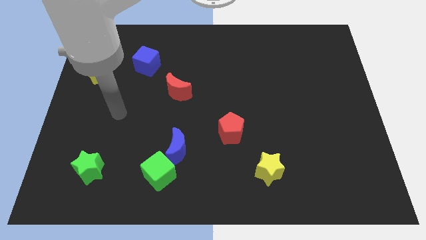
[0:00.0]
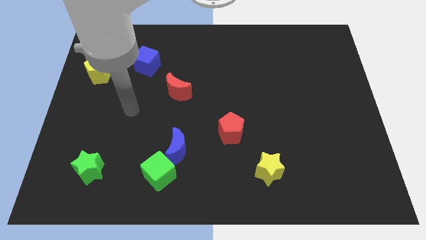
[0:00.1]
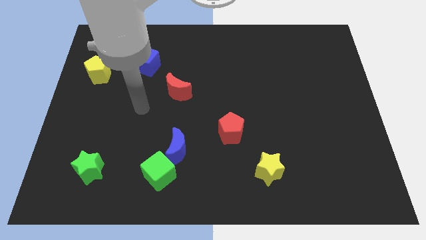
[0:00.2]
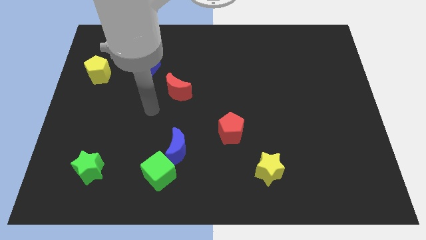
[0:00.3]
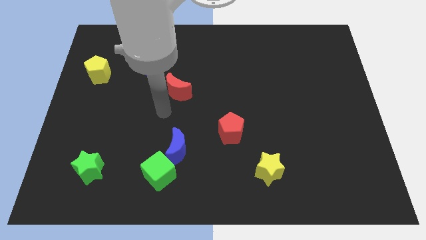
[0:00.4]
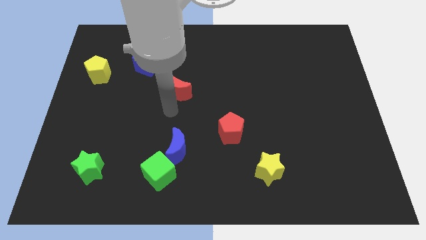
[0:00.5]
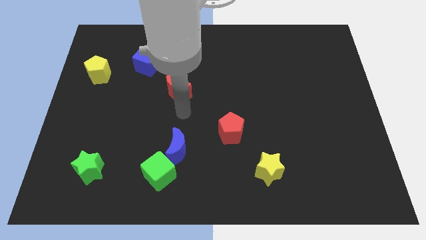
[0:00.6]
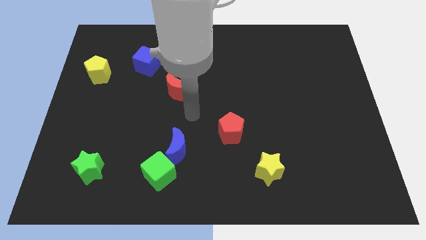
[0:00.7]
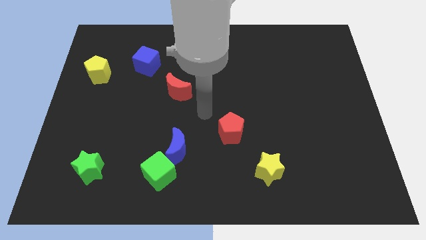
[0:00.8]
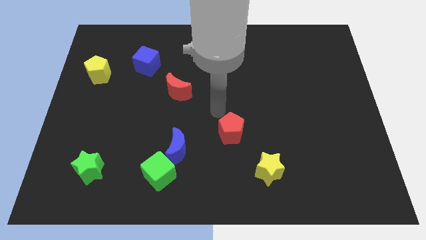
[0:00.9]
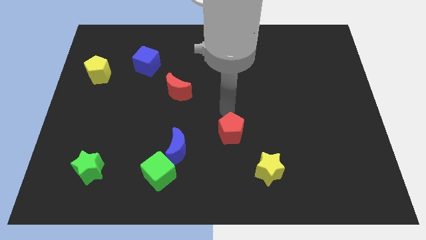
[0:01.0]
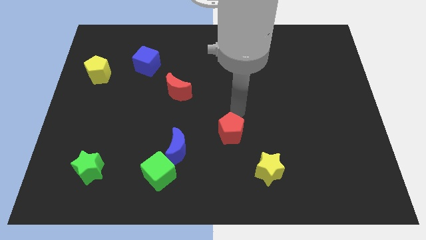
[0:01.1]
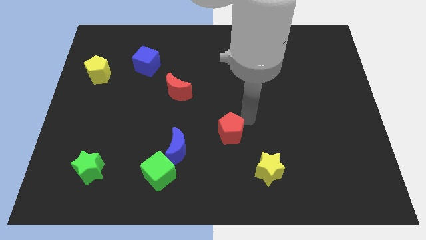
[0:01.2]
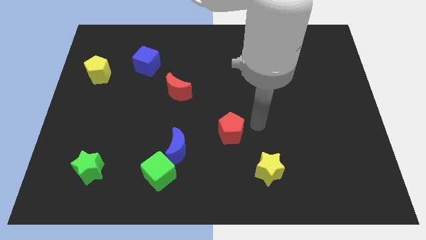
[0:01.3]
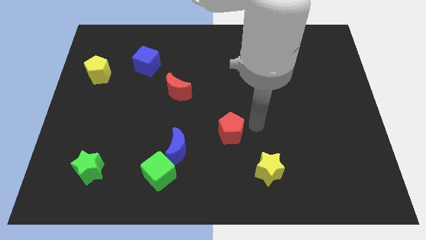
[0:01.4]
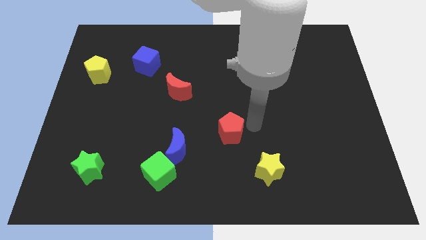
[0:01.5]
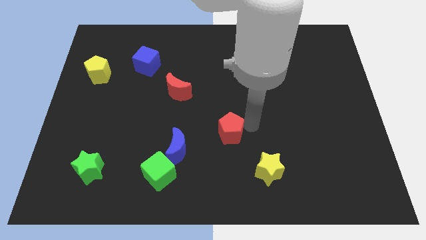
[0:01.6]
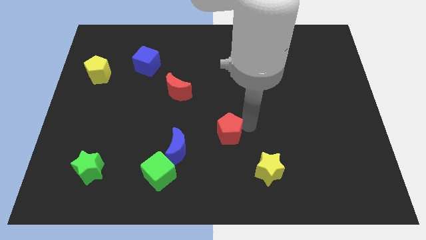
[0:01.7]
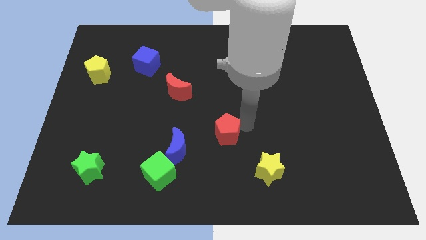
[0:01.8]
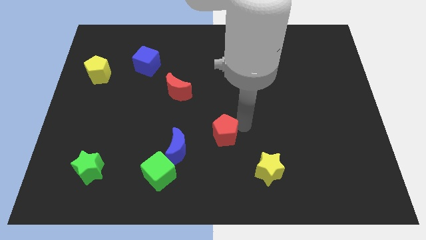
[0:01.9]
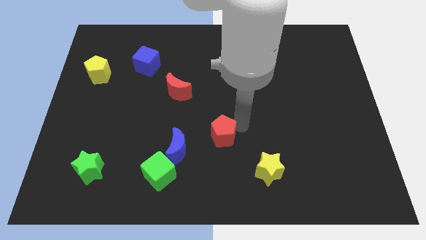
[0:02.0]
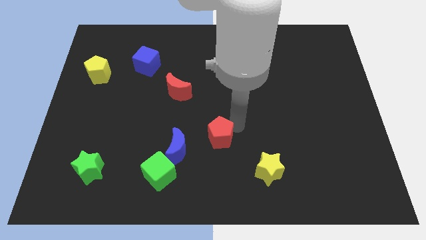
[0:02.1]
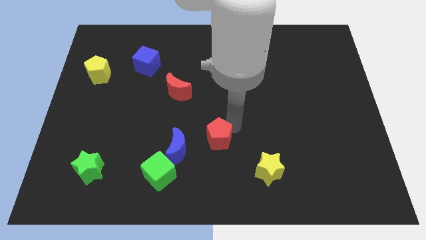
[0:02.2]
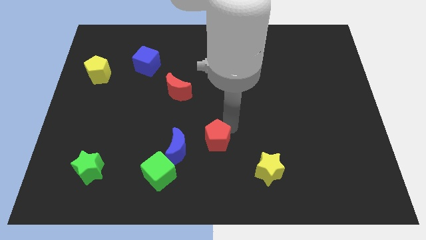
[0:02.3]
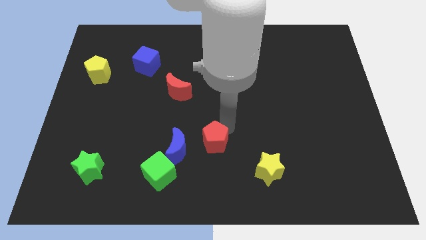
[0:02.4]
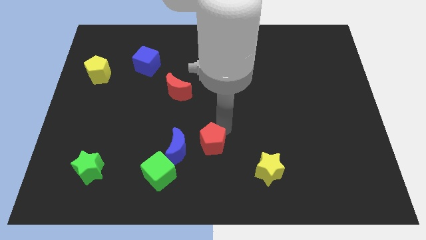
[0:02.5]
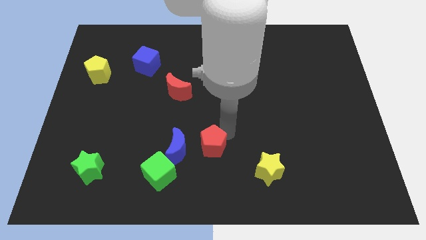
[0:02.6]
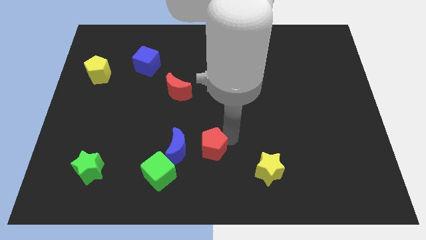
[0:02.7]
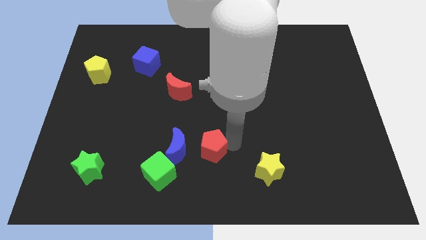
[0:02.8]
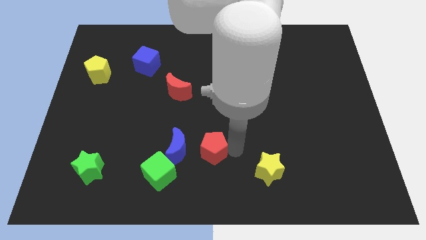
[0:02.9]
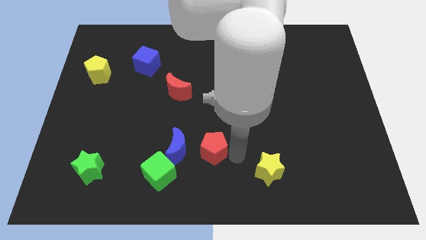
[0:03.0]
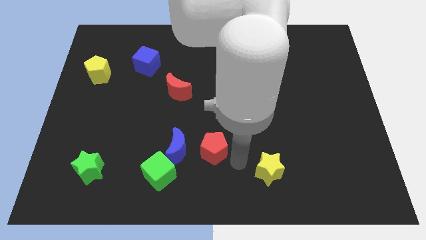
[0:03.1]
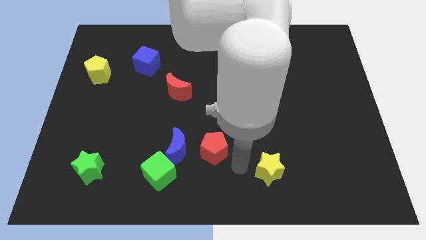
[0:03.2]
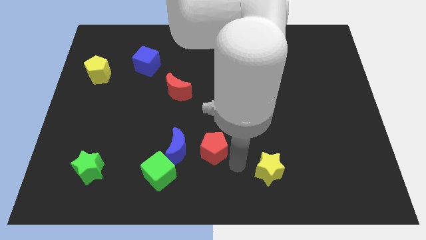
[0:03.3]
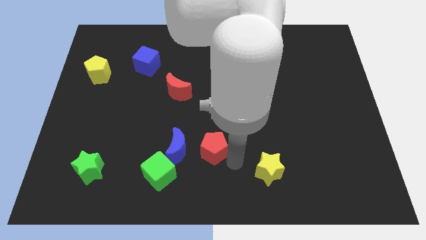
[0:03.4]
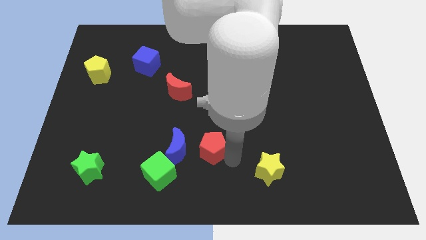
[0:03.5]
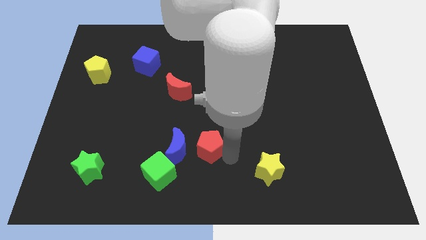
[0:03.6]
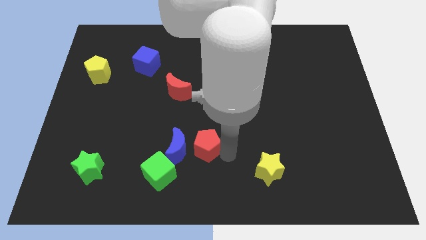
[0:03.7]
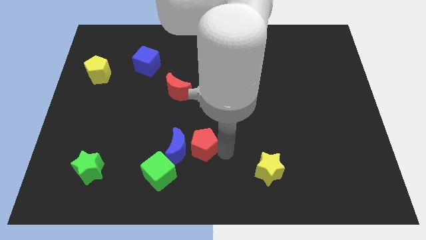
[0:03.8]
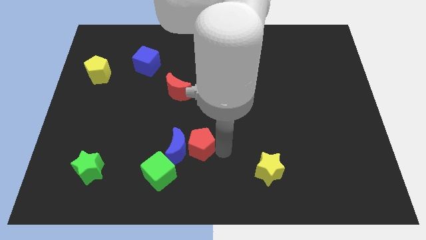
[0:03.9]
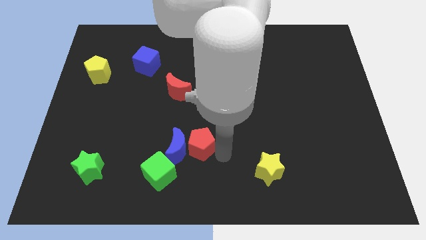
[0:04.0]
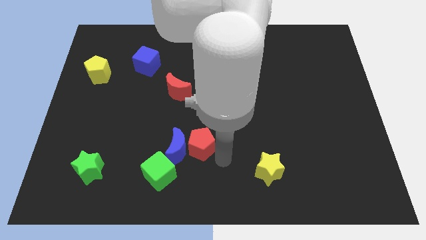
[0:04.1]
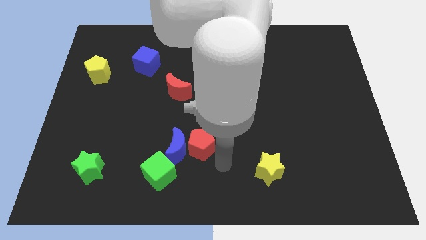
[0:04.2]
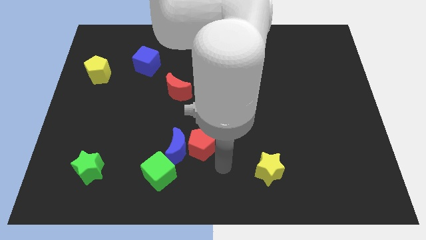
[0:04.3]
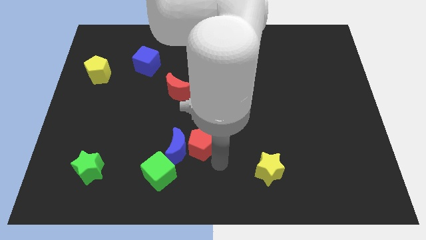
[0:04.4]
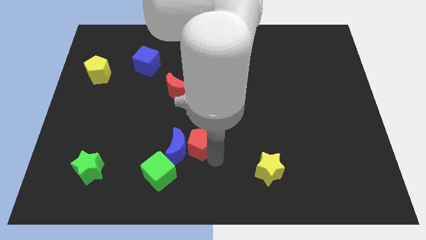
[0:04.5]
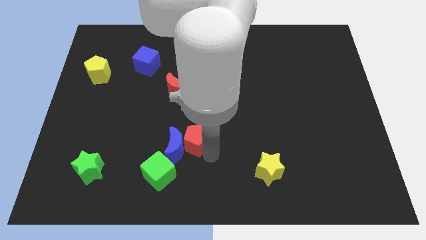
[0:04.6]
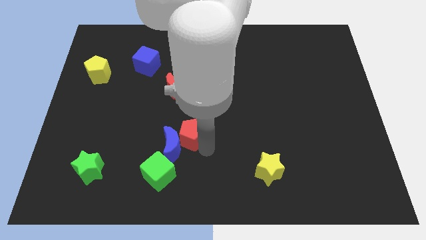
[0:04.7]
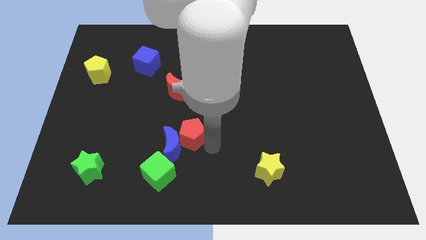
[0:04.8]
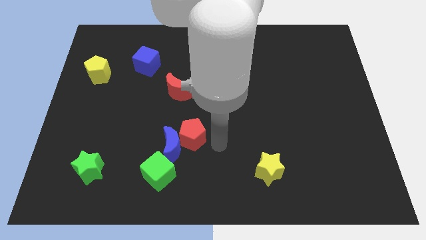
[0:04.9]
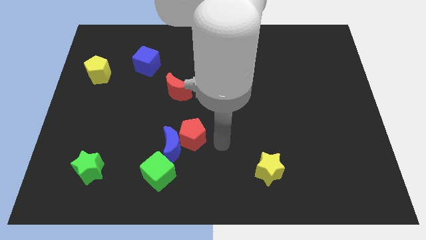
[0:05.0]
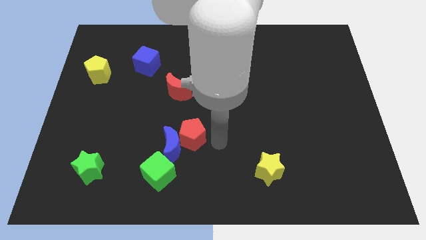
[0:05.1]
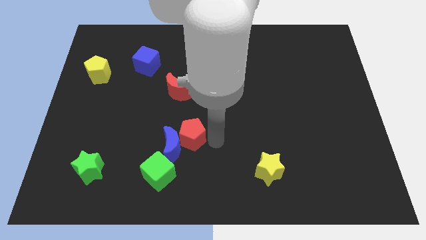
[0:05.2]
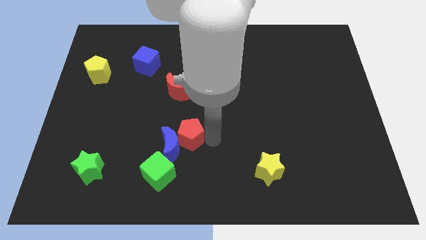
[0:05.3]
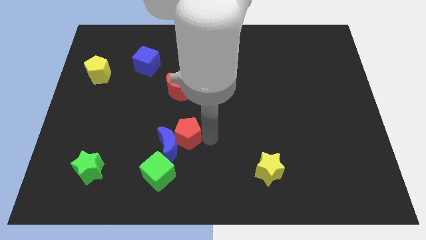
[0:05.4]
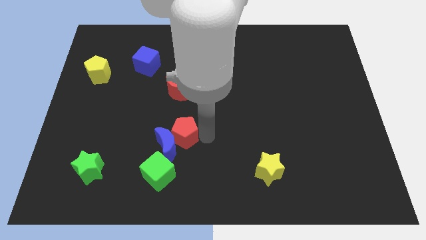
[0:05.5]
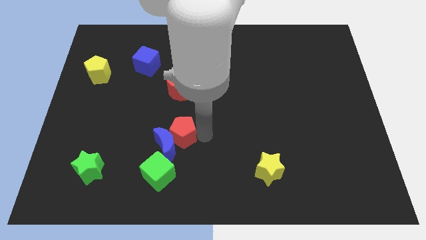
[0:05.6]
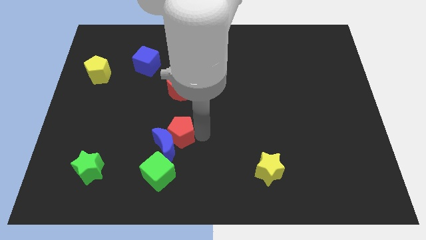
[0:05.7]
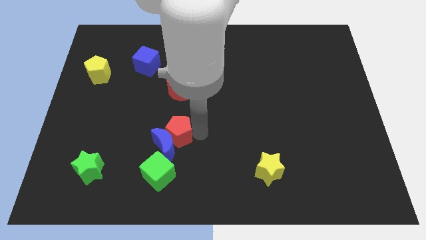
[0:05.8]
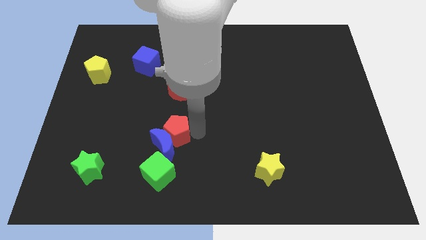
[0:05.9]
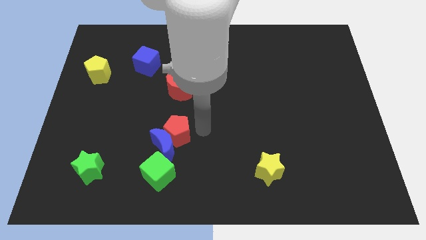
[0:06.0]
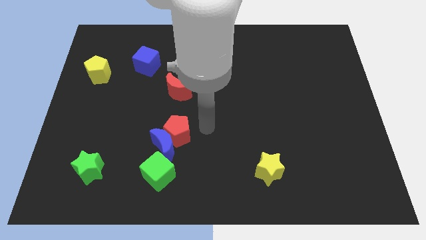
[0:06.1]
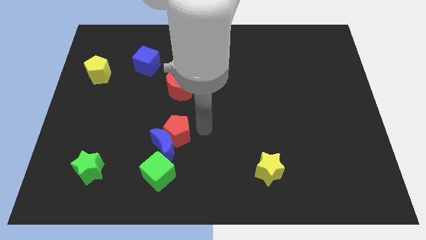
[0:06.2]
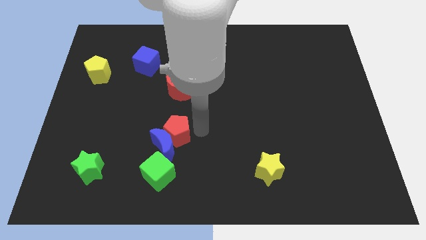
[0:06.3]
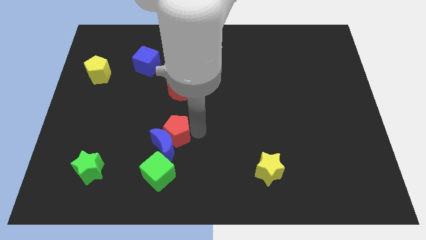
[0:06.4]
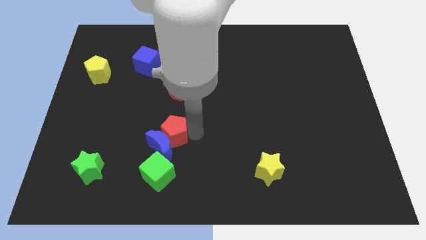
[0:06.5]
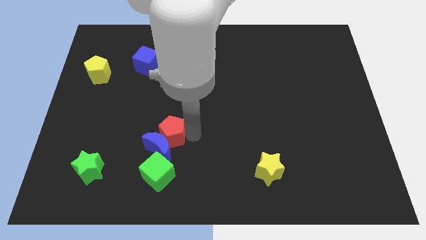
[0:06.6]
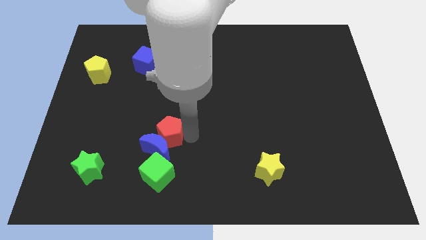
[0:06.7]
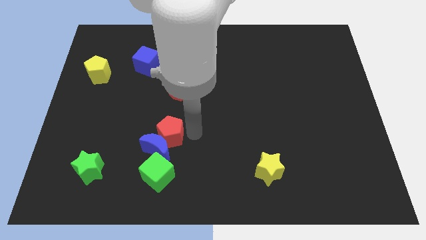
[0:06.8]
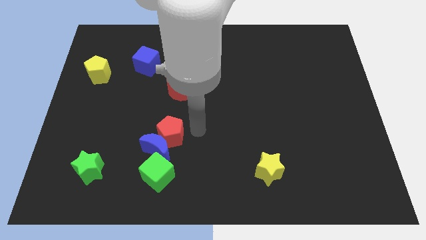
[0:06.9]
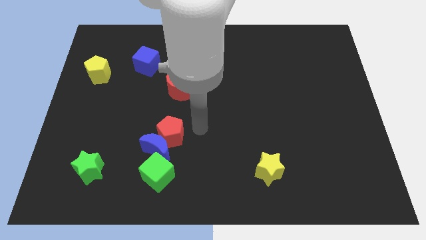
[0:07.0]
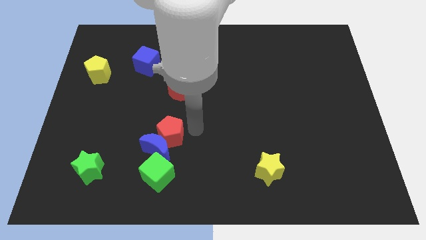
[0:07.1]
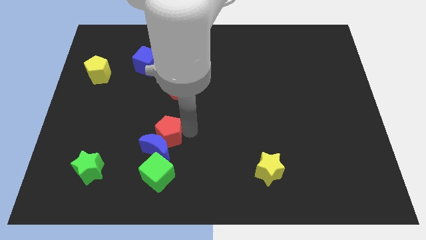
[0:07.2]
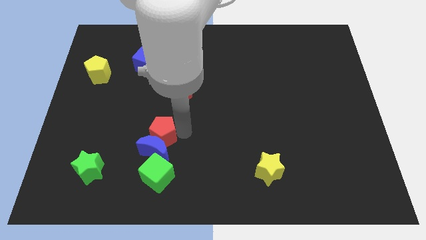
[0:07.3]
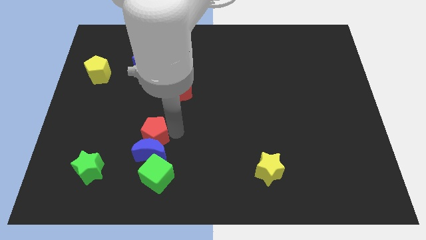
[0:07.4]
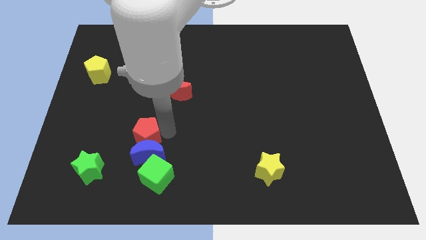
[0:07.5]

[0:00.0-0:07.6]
push the red pentagon diagonally up and to the left of the green cube
